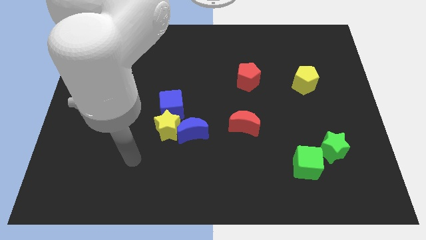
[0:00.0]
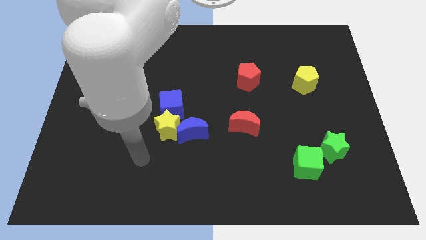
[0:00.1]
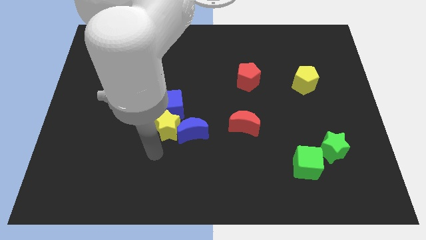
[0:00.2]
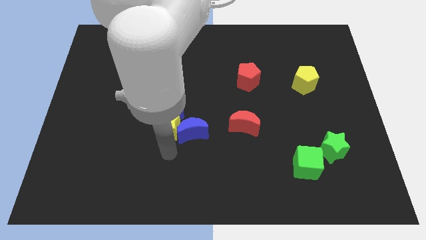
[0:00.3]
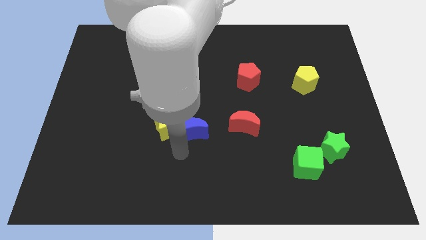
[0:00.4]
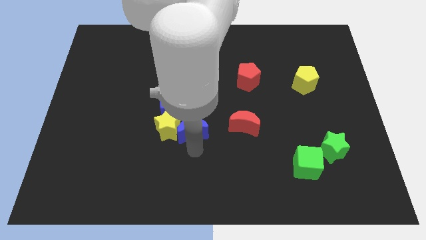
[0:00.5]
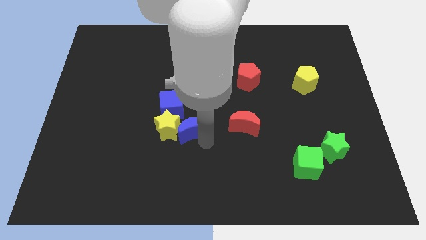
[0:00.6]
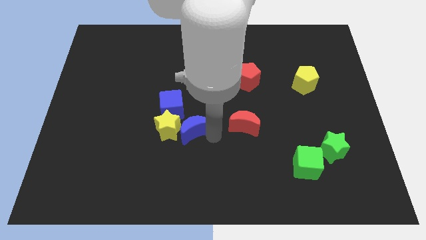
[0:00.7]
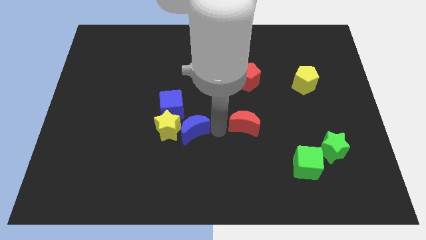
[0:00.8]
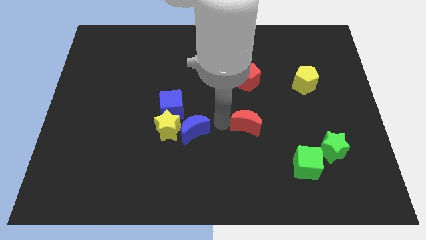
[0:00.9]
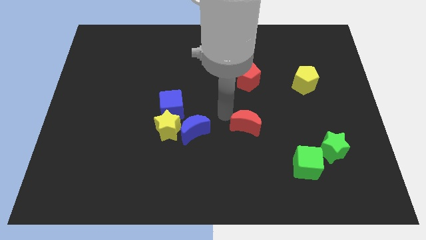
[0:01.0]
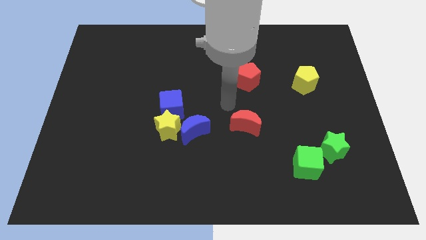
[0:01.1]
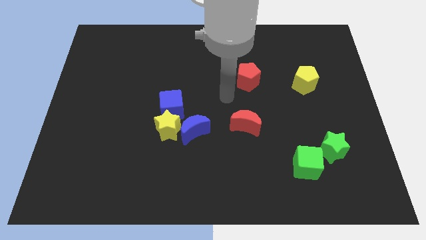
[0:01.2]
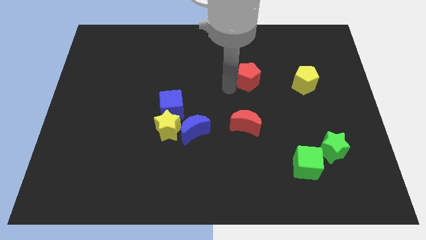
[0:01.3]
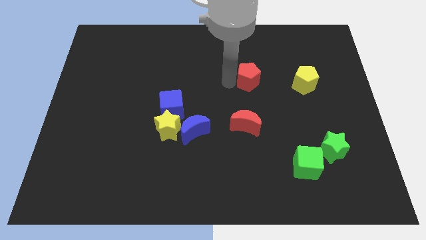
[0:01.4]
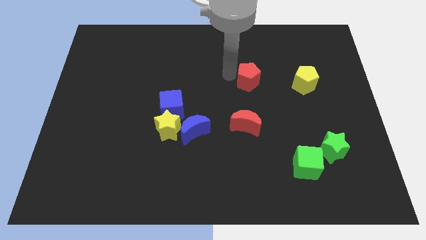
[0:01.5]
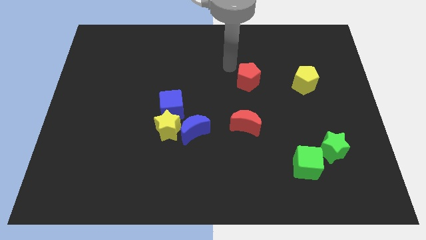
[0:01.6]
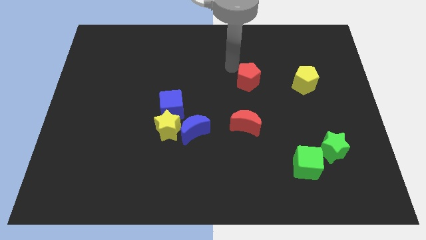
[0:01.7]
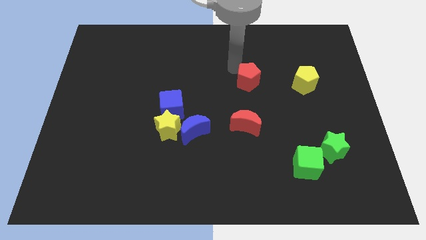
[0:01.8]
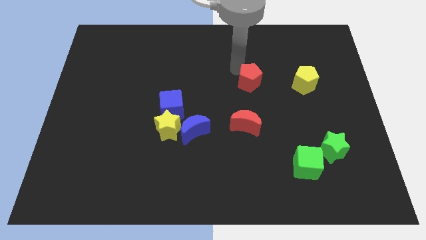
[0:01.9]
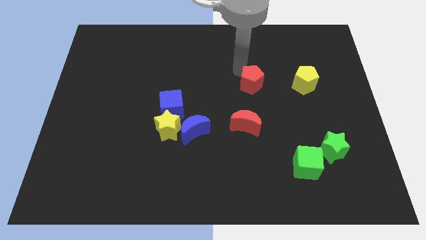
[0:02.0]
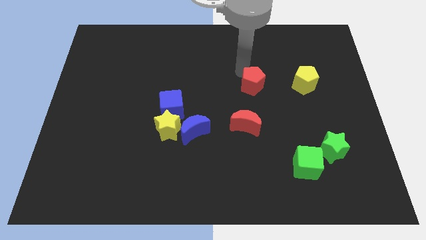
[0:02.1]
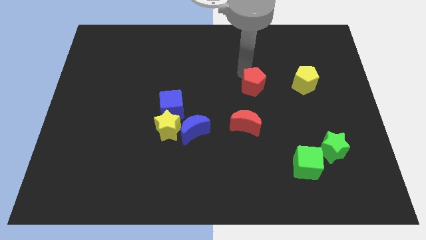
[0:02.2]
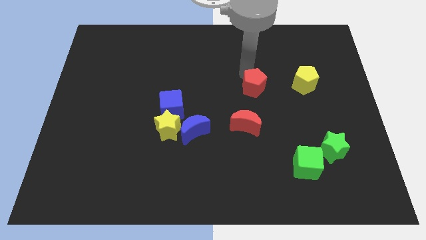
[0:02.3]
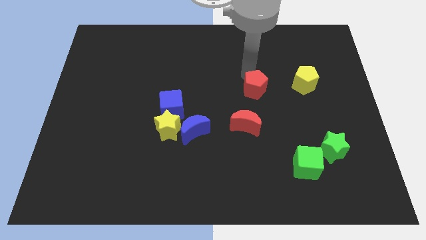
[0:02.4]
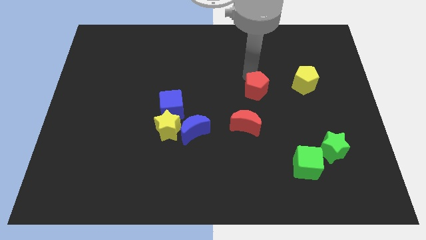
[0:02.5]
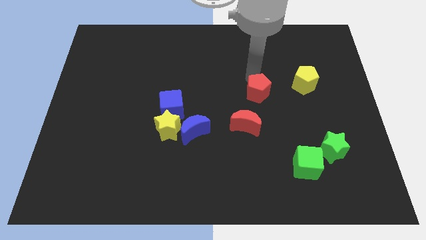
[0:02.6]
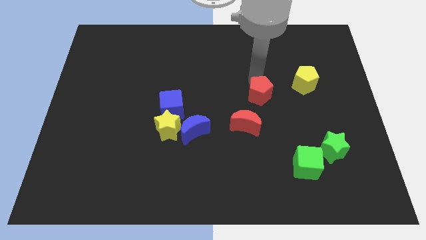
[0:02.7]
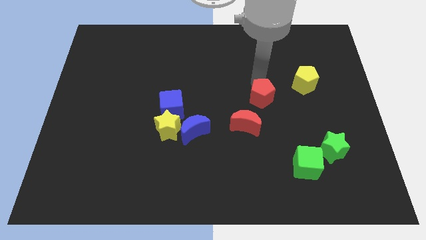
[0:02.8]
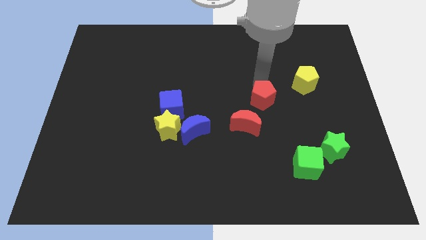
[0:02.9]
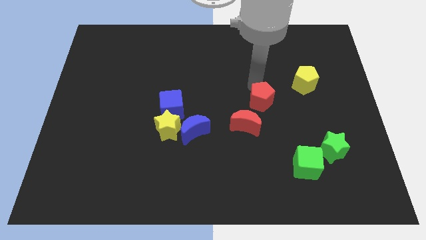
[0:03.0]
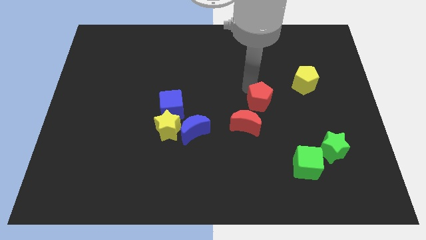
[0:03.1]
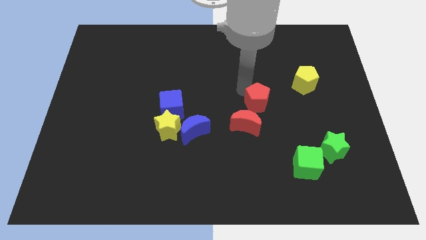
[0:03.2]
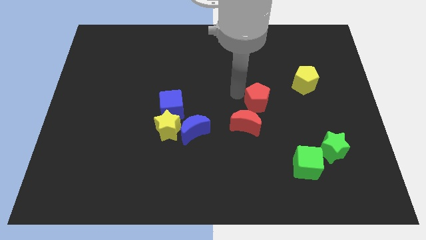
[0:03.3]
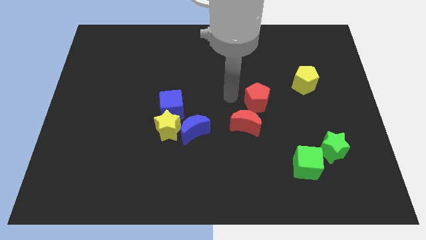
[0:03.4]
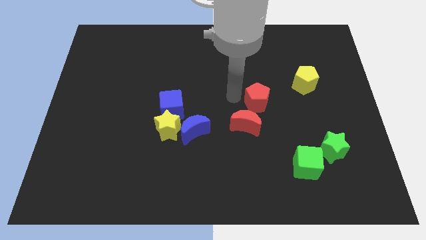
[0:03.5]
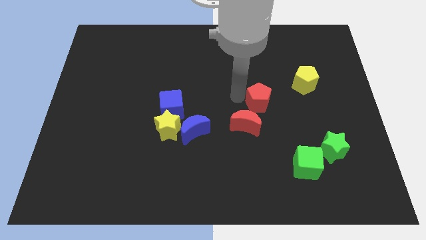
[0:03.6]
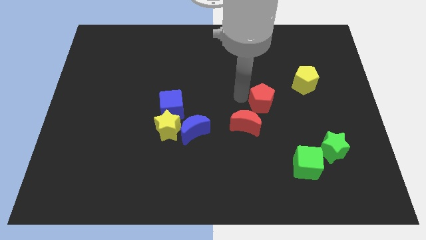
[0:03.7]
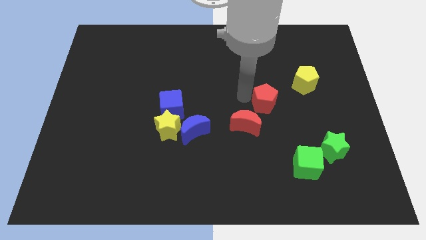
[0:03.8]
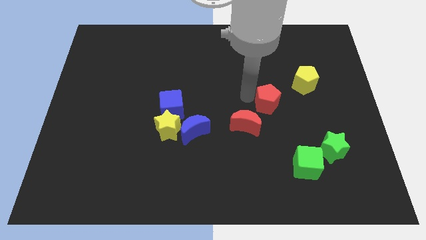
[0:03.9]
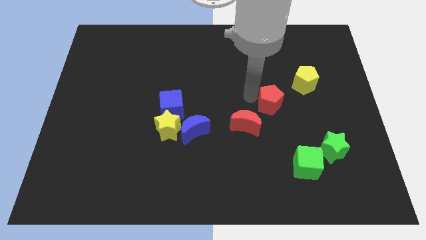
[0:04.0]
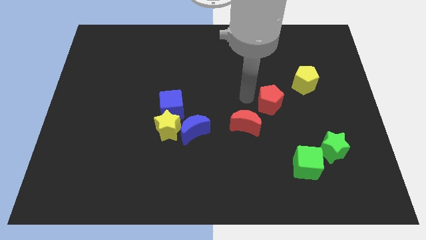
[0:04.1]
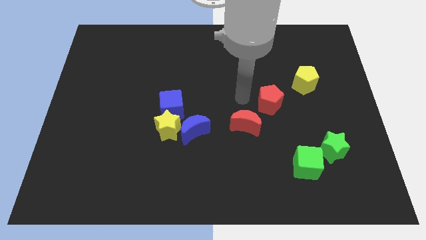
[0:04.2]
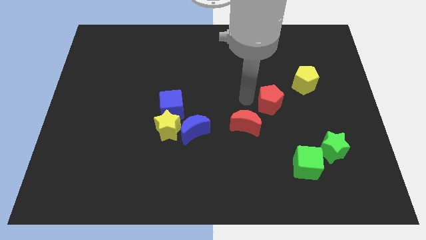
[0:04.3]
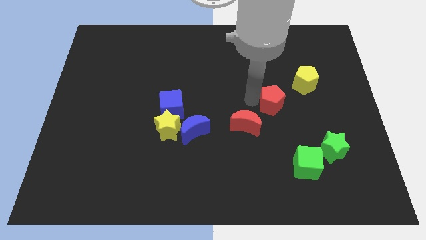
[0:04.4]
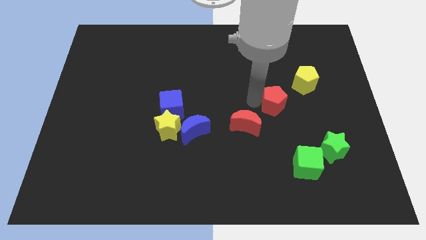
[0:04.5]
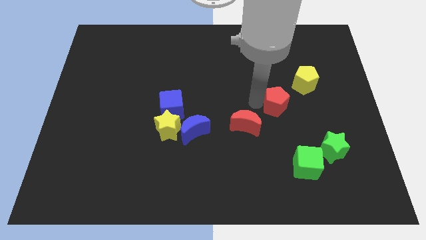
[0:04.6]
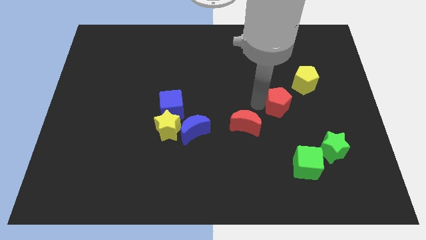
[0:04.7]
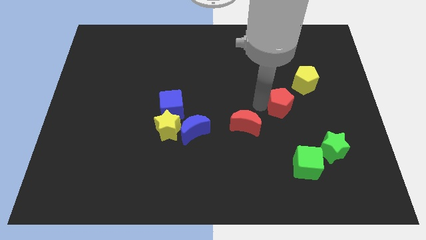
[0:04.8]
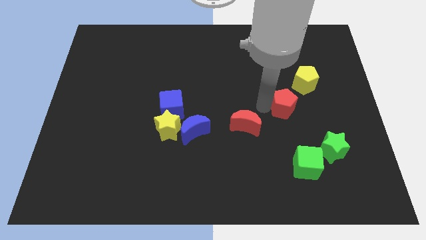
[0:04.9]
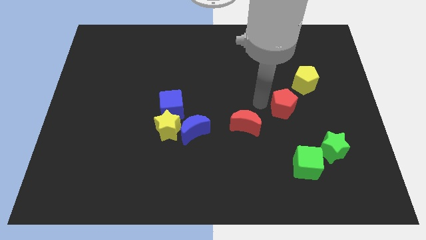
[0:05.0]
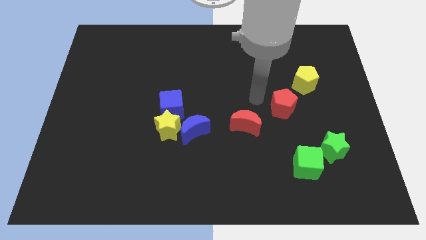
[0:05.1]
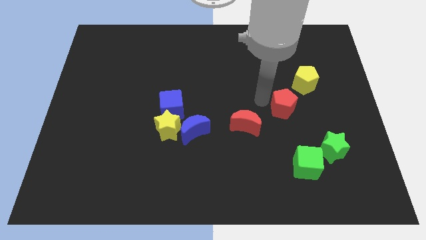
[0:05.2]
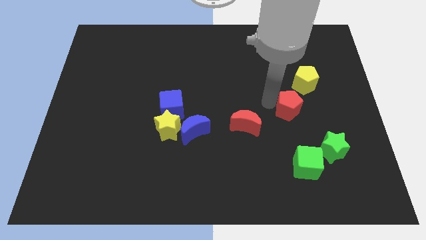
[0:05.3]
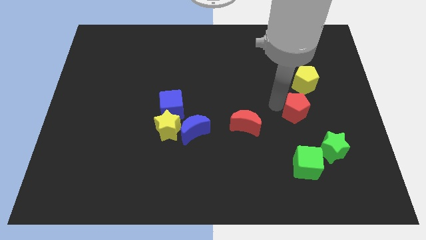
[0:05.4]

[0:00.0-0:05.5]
put the red pentagon to the bottom of the yellow pentagon

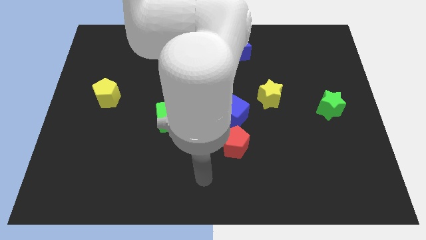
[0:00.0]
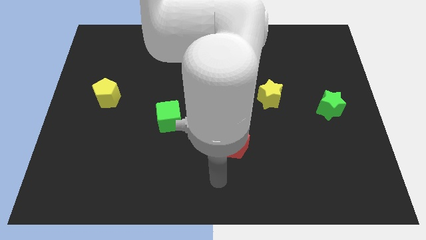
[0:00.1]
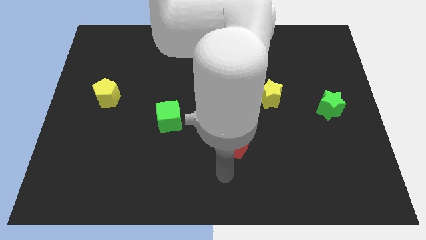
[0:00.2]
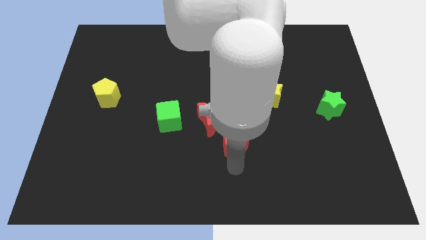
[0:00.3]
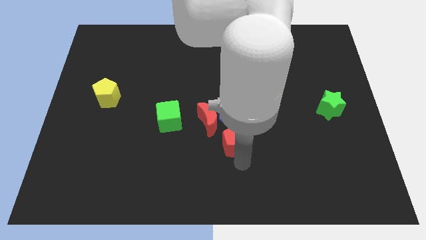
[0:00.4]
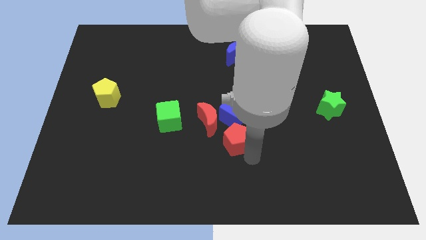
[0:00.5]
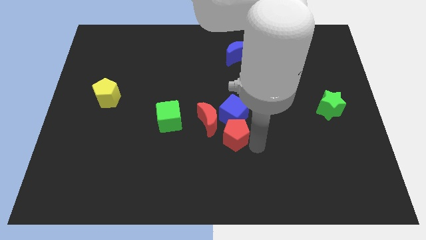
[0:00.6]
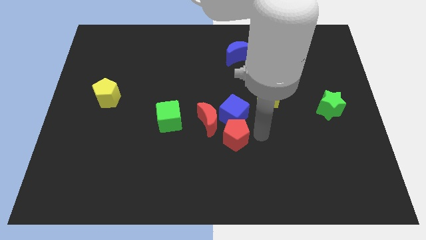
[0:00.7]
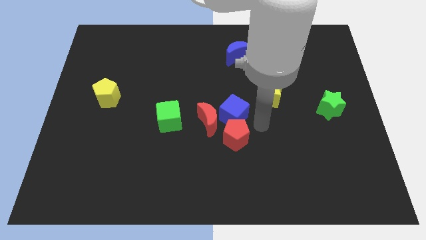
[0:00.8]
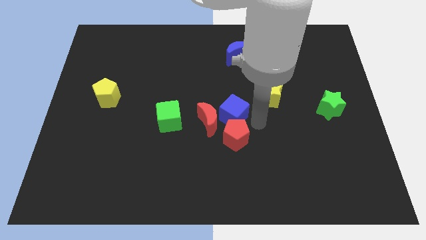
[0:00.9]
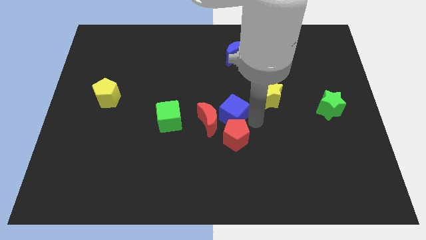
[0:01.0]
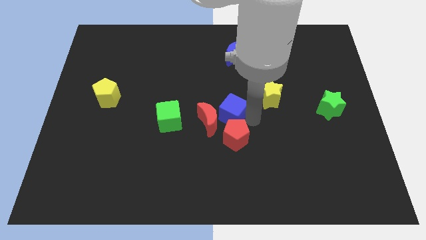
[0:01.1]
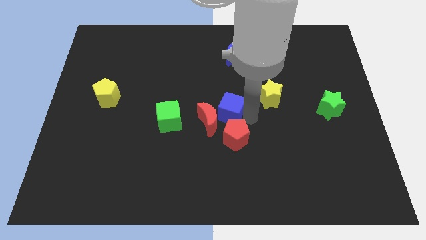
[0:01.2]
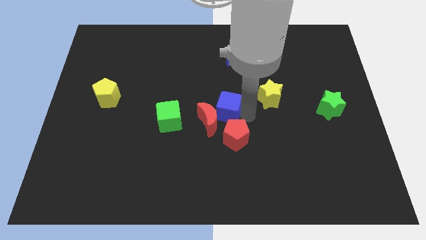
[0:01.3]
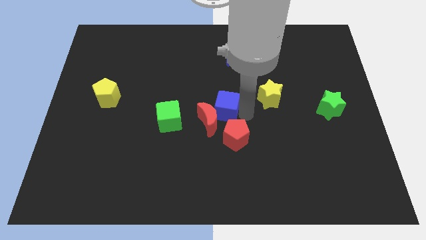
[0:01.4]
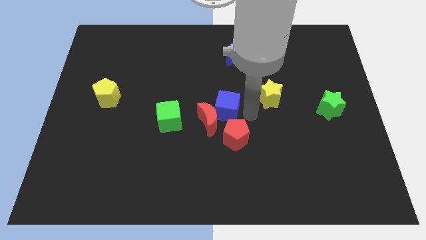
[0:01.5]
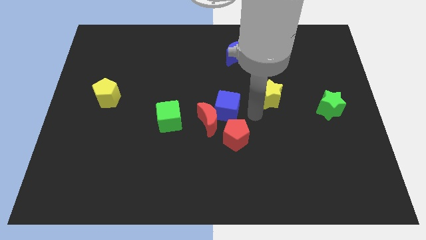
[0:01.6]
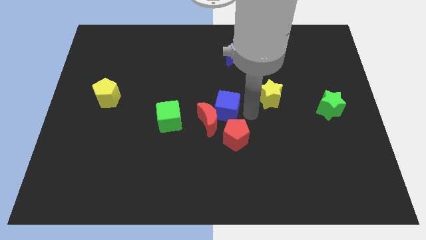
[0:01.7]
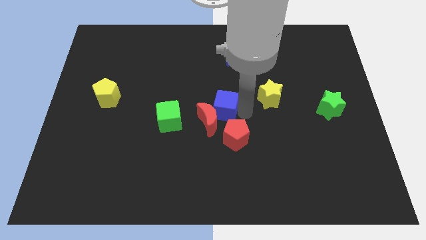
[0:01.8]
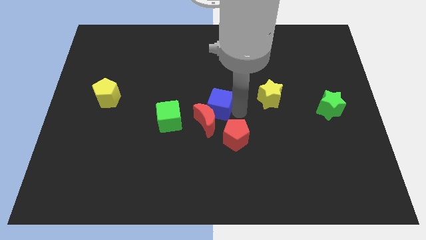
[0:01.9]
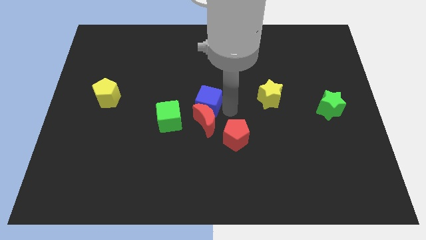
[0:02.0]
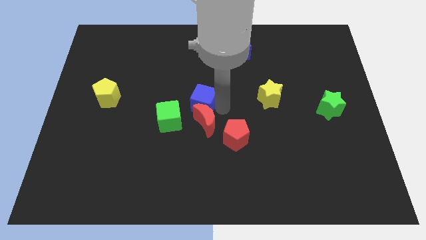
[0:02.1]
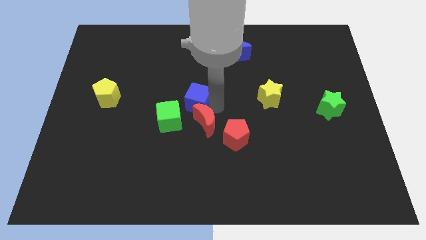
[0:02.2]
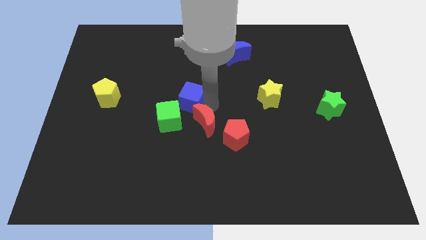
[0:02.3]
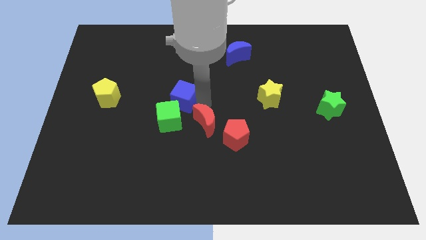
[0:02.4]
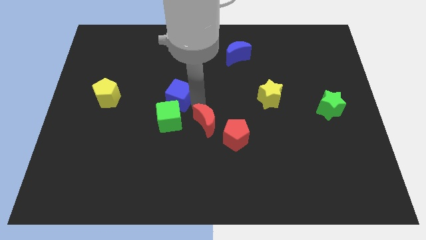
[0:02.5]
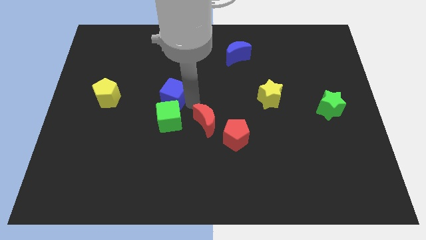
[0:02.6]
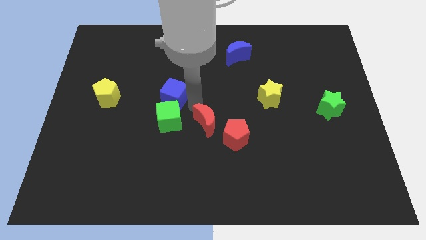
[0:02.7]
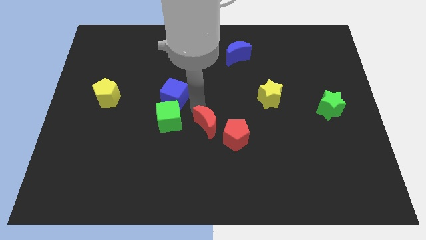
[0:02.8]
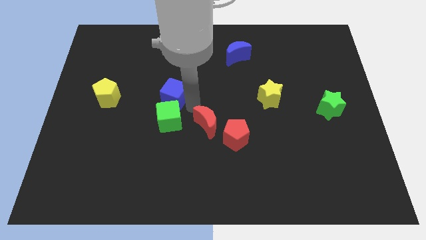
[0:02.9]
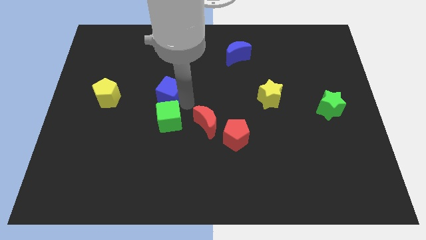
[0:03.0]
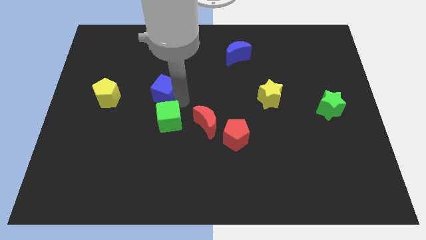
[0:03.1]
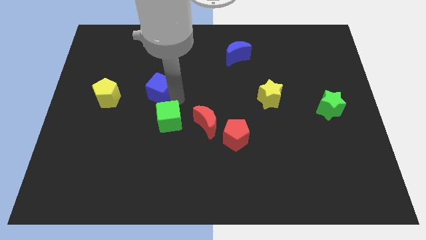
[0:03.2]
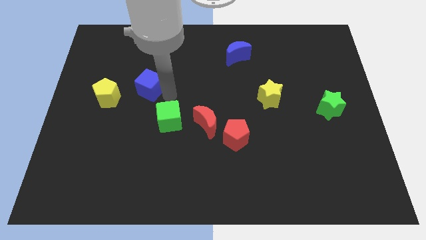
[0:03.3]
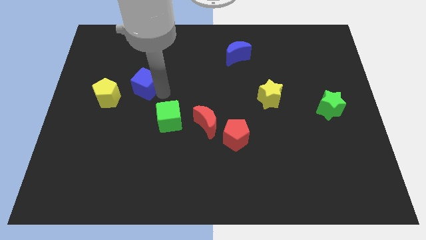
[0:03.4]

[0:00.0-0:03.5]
push the blue cube diagonally up and to the right of the yellow pentagon
